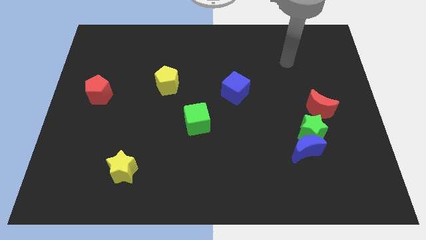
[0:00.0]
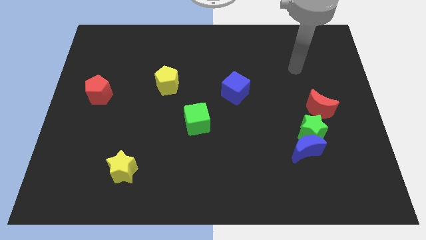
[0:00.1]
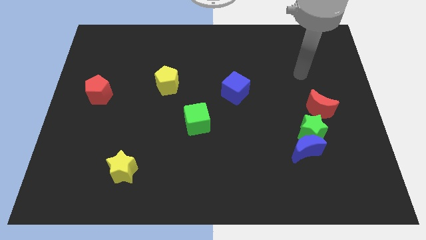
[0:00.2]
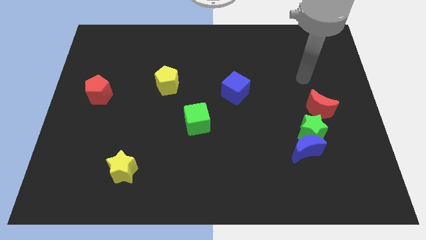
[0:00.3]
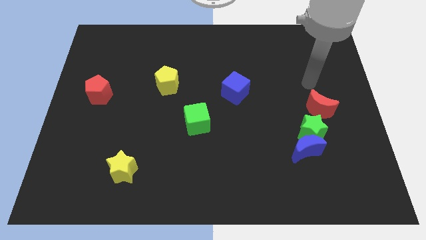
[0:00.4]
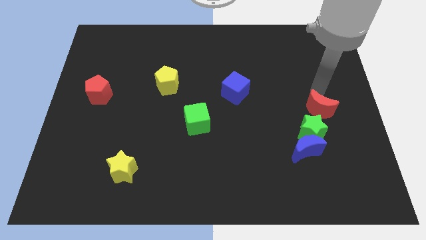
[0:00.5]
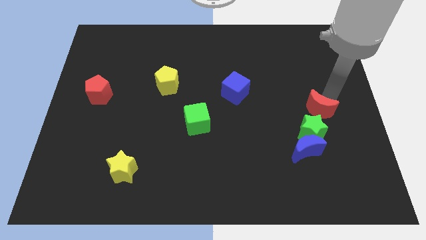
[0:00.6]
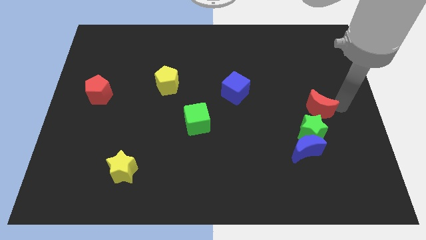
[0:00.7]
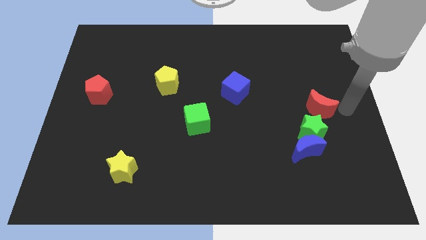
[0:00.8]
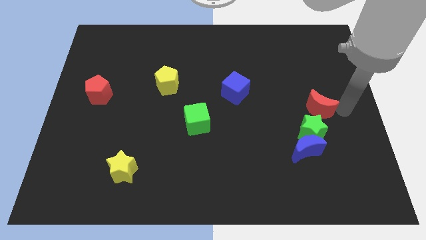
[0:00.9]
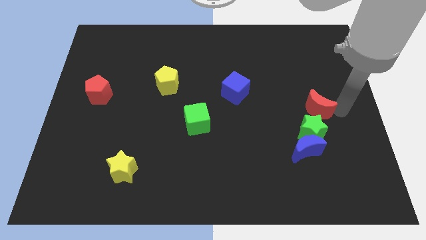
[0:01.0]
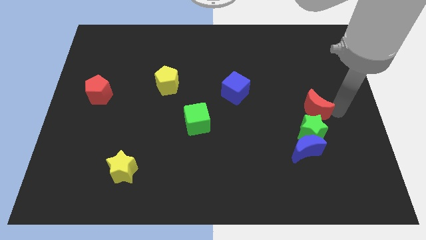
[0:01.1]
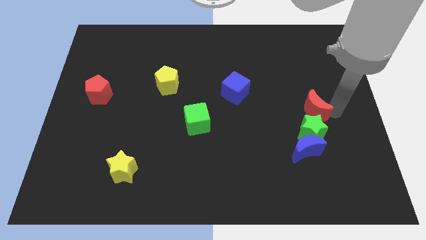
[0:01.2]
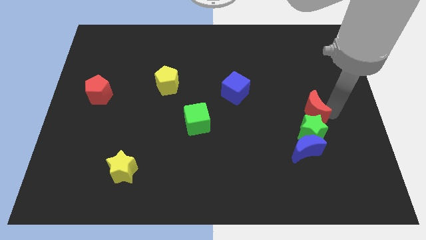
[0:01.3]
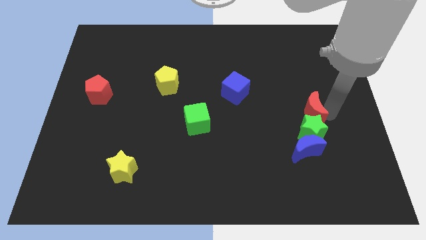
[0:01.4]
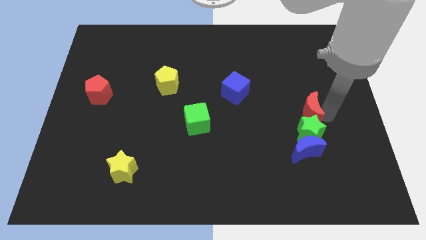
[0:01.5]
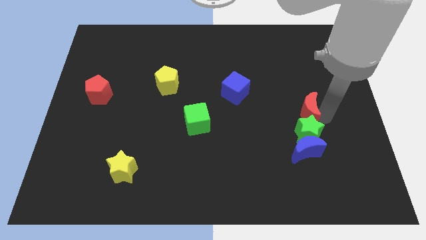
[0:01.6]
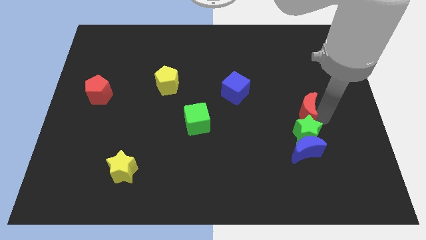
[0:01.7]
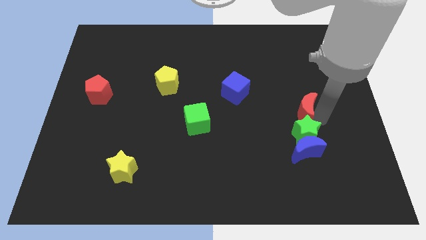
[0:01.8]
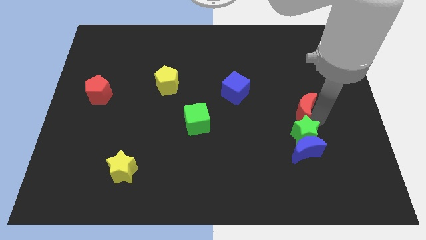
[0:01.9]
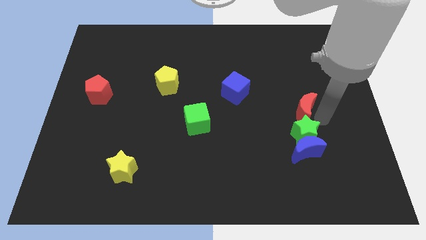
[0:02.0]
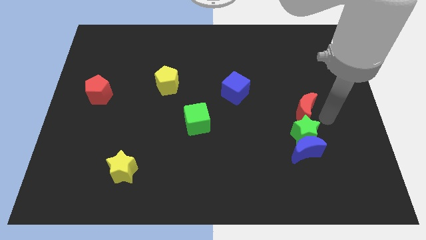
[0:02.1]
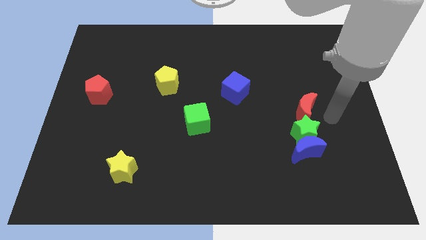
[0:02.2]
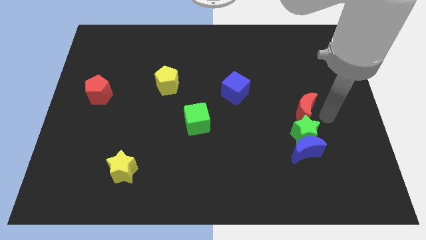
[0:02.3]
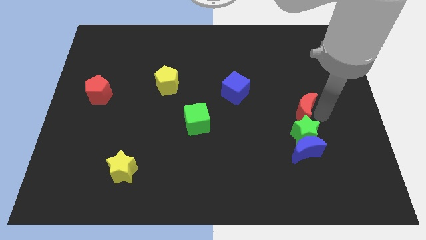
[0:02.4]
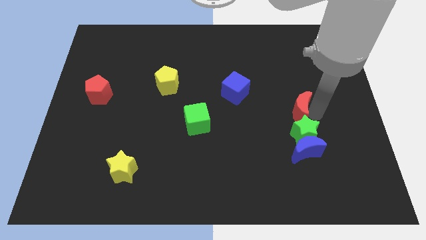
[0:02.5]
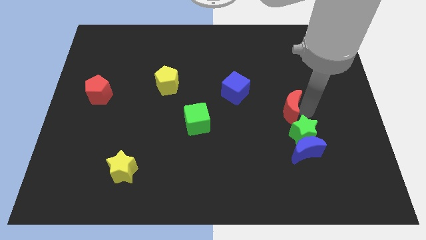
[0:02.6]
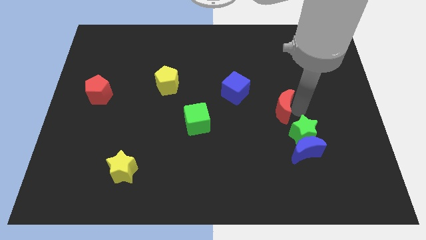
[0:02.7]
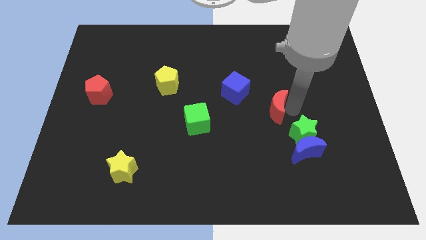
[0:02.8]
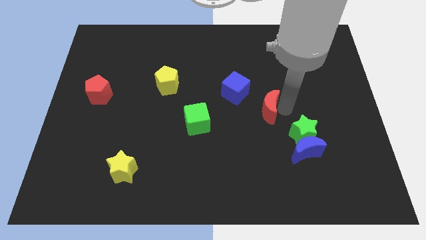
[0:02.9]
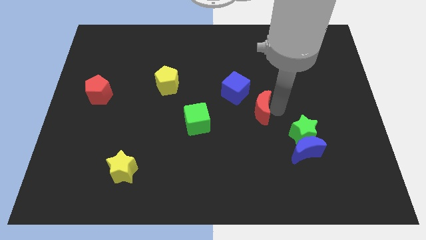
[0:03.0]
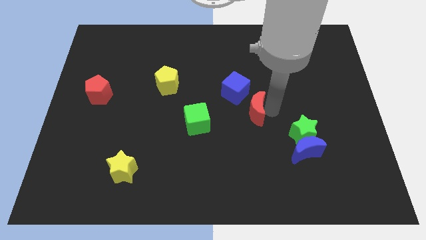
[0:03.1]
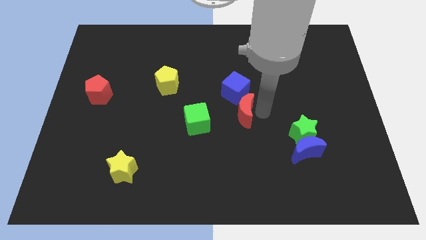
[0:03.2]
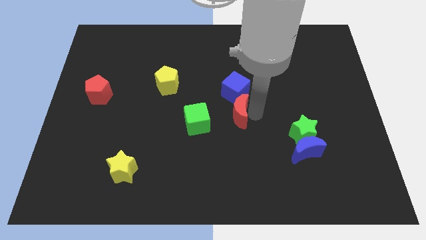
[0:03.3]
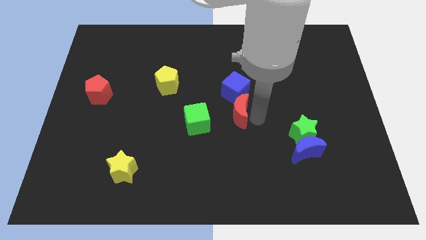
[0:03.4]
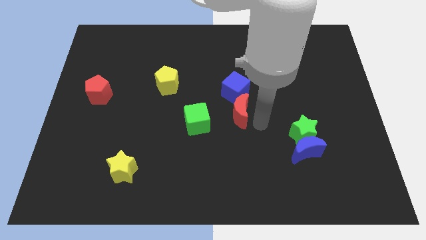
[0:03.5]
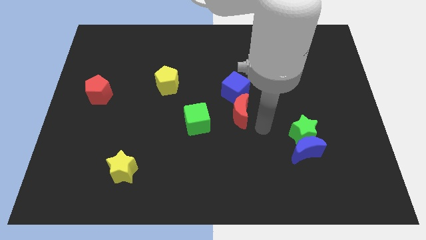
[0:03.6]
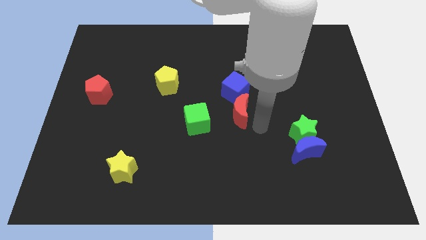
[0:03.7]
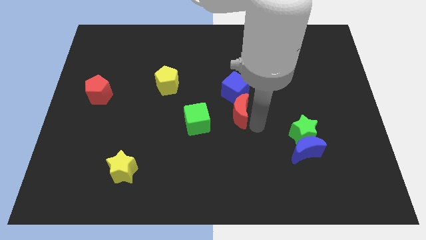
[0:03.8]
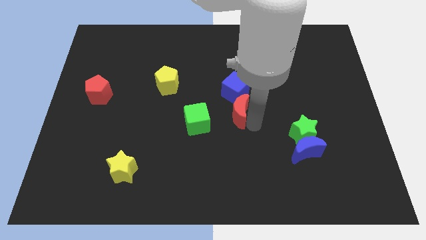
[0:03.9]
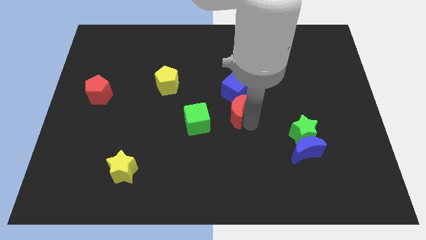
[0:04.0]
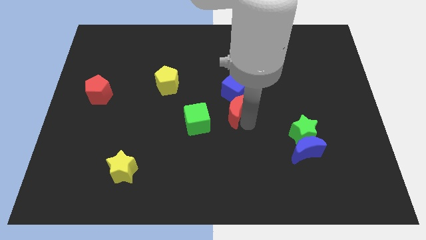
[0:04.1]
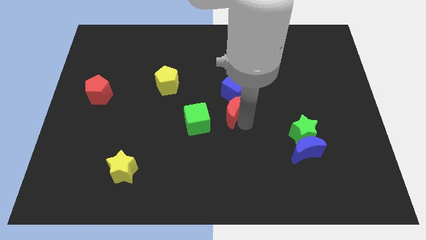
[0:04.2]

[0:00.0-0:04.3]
push the red moon to the left

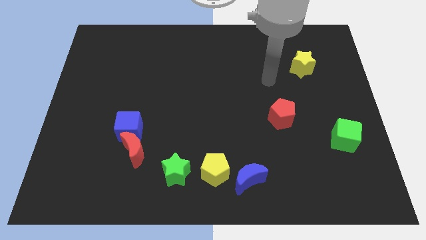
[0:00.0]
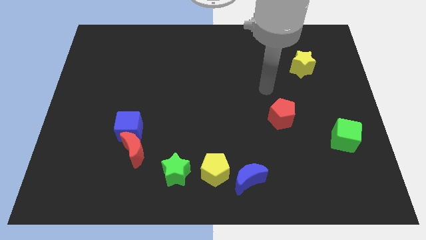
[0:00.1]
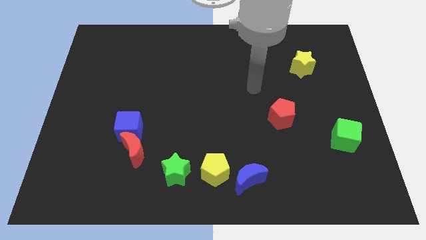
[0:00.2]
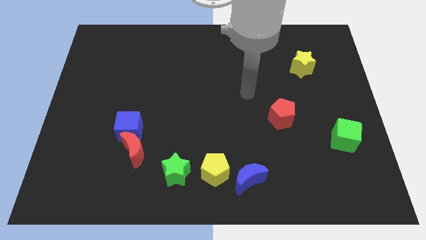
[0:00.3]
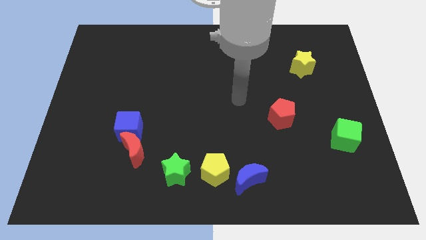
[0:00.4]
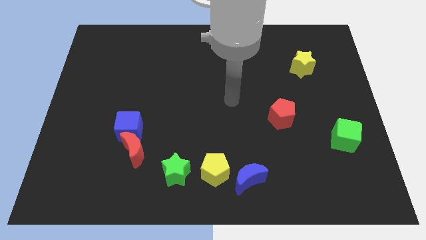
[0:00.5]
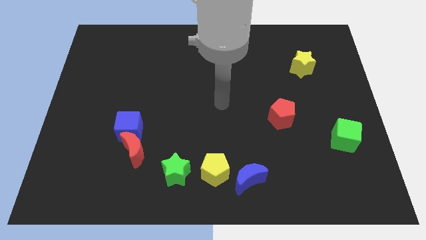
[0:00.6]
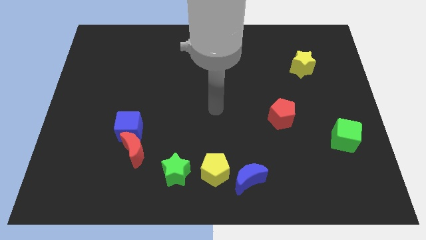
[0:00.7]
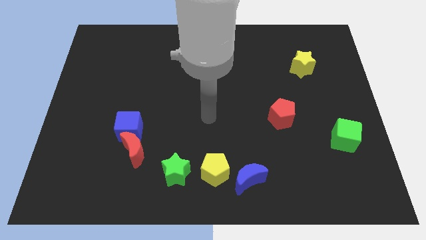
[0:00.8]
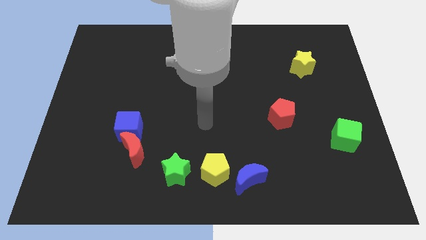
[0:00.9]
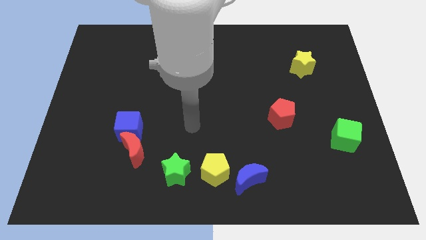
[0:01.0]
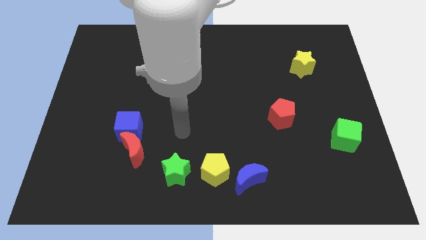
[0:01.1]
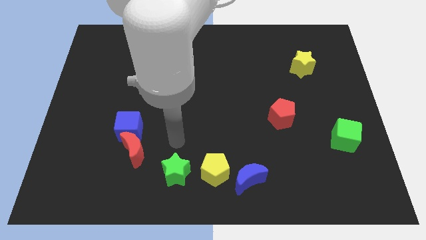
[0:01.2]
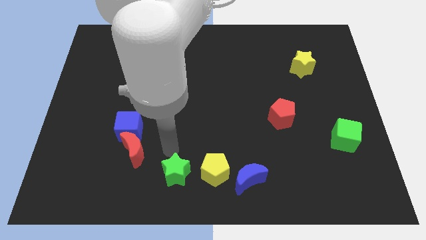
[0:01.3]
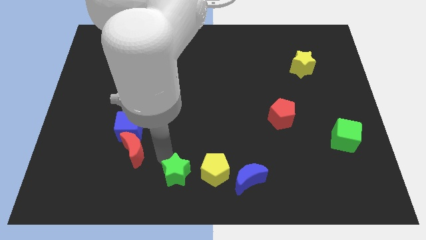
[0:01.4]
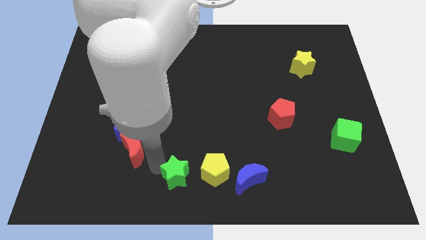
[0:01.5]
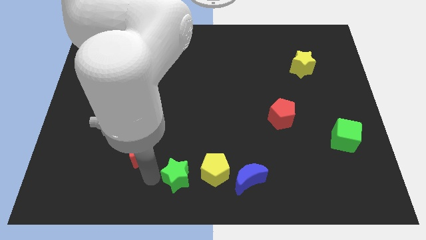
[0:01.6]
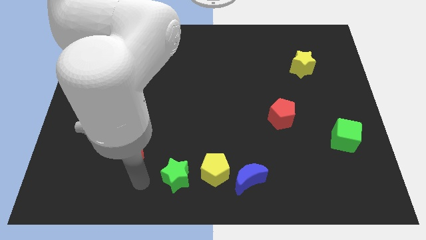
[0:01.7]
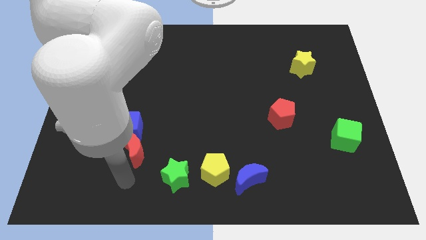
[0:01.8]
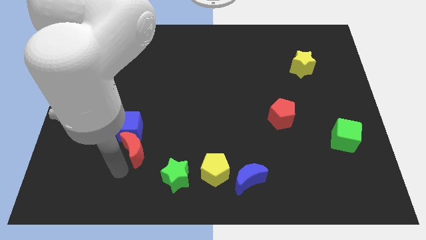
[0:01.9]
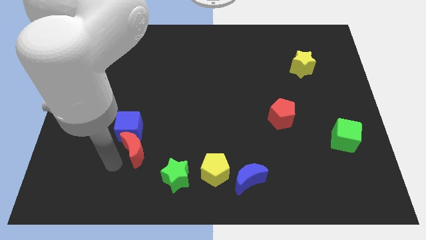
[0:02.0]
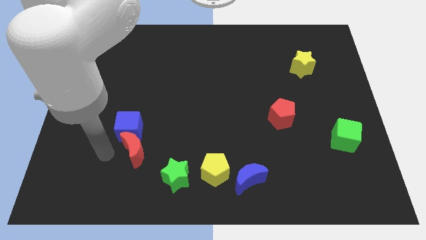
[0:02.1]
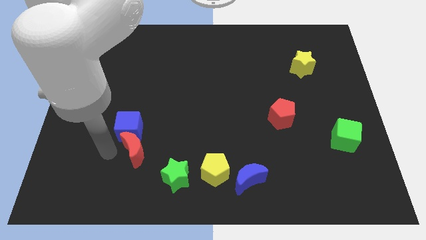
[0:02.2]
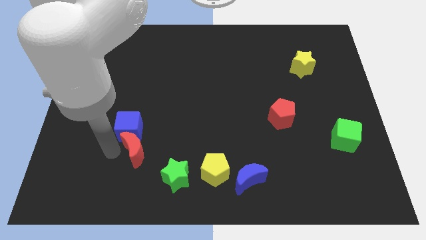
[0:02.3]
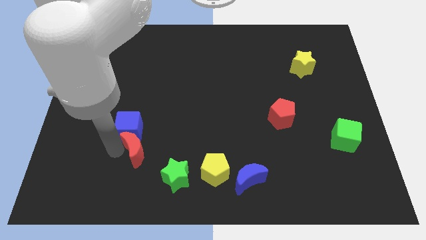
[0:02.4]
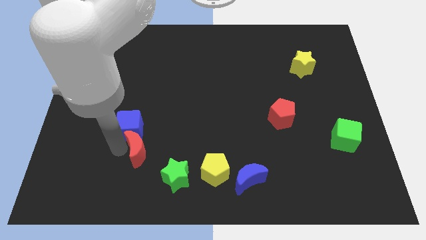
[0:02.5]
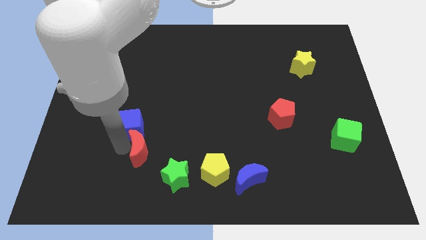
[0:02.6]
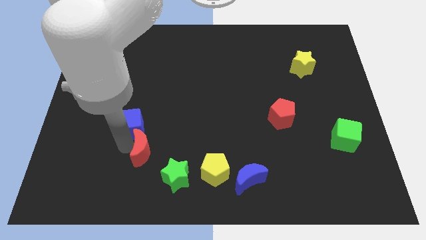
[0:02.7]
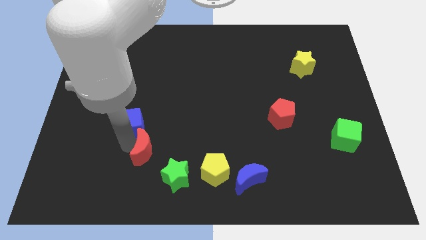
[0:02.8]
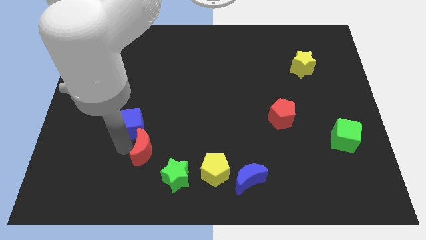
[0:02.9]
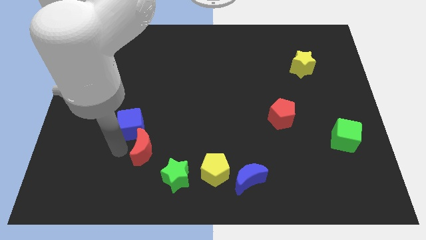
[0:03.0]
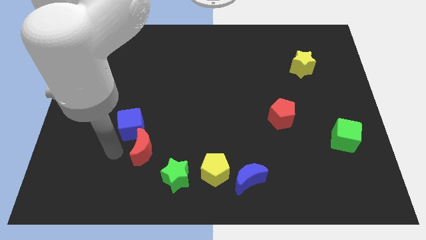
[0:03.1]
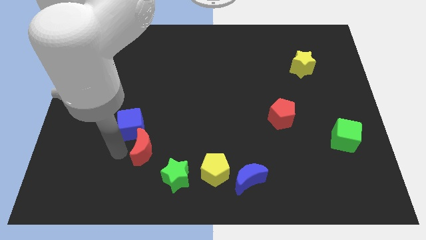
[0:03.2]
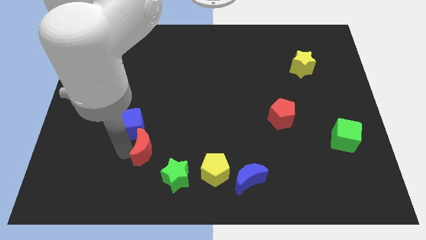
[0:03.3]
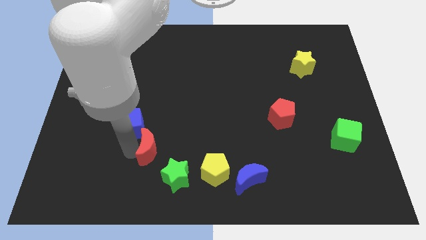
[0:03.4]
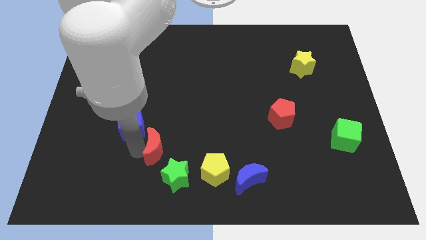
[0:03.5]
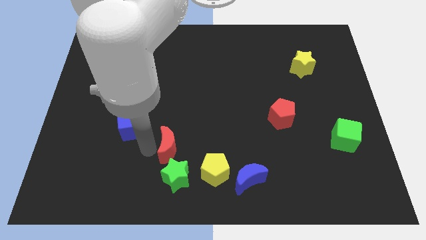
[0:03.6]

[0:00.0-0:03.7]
slightly move the red moon right

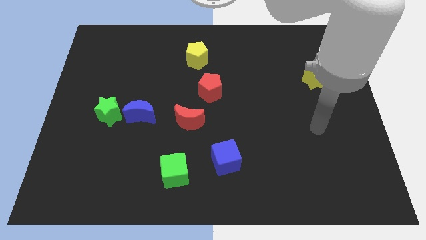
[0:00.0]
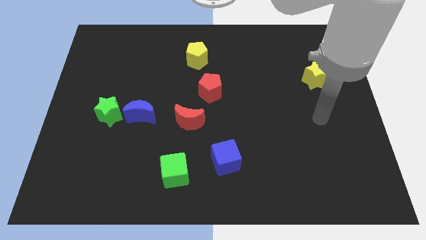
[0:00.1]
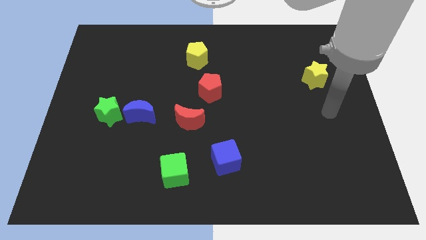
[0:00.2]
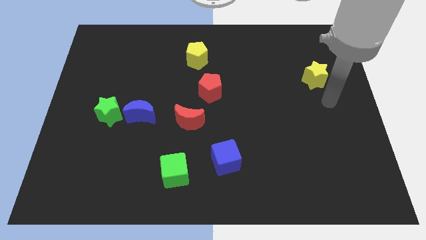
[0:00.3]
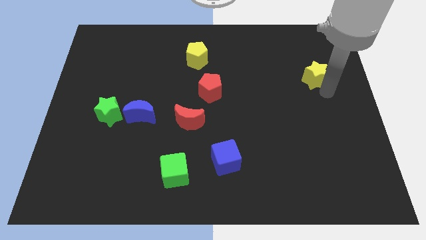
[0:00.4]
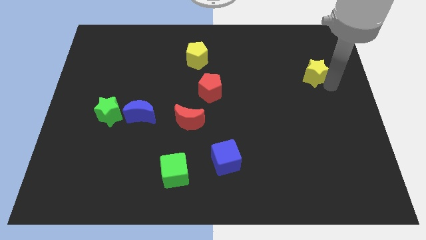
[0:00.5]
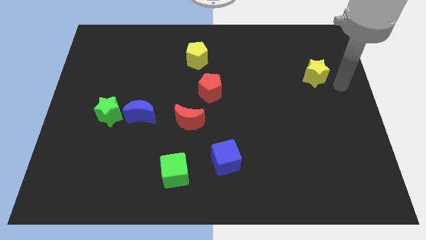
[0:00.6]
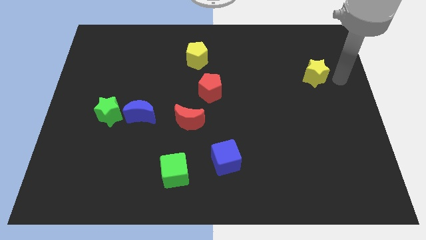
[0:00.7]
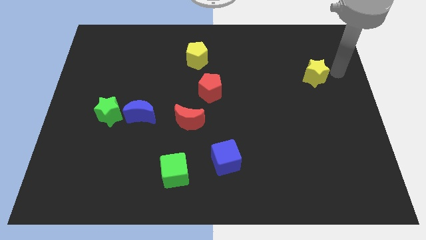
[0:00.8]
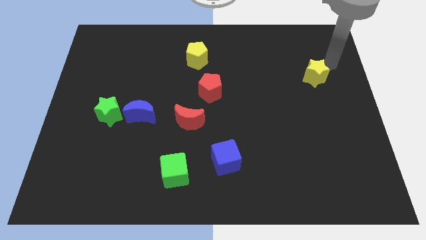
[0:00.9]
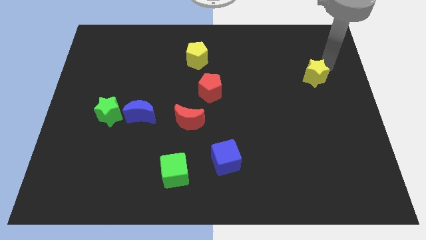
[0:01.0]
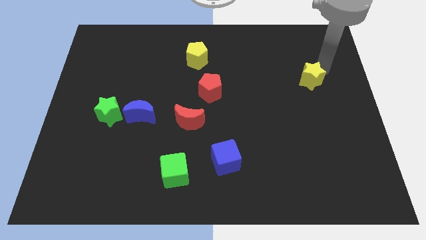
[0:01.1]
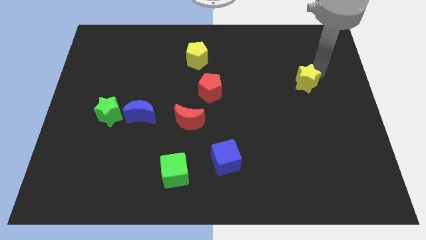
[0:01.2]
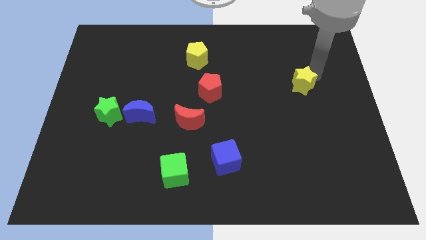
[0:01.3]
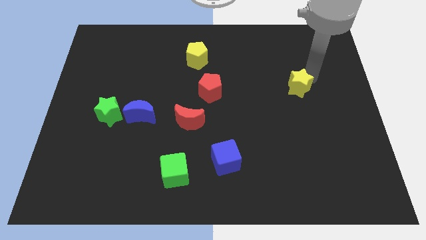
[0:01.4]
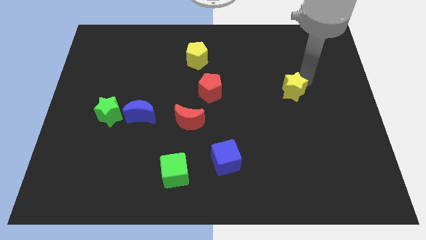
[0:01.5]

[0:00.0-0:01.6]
slightly move the yellow star downwards and to the left diagonally
